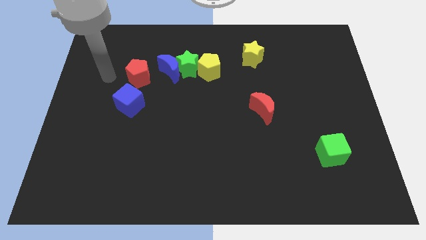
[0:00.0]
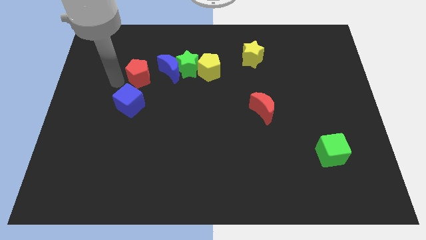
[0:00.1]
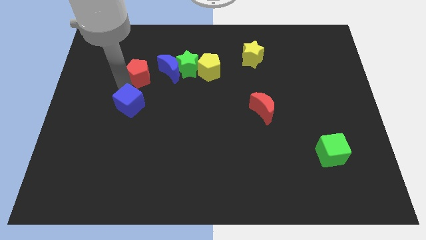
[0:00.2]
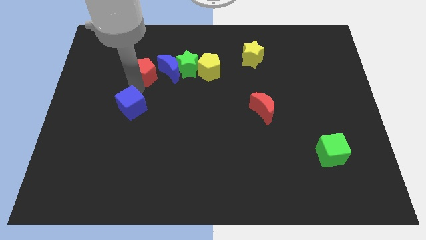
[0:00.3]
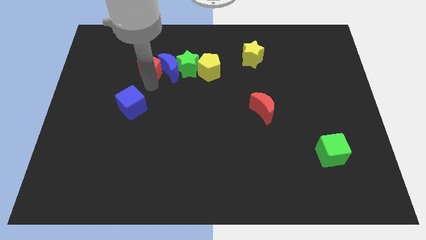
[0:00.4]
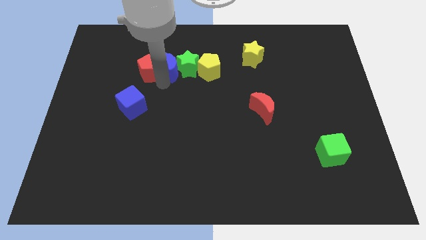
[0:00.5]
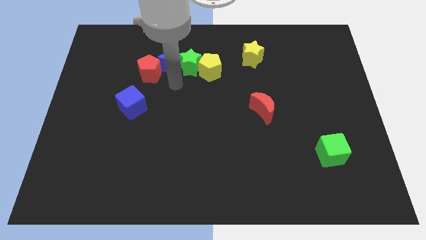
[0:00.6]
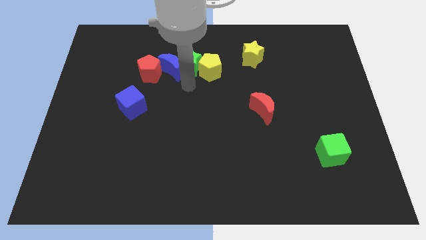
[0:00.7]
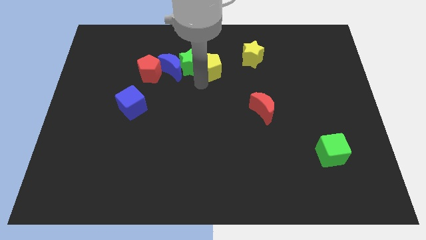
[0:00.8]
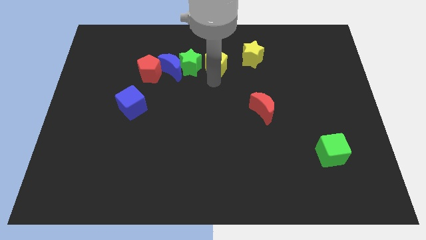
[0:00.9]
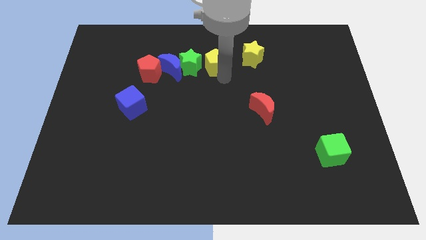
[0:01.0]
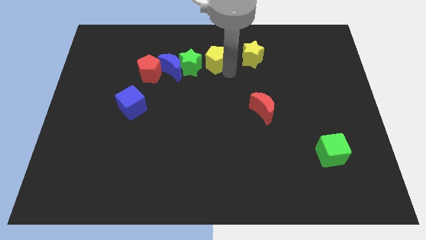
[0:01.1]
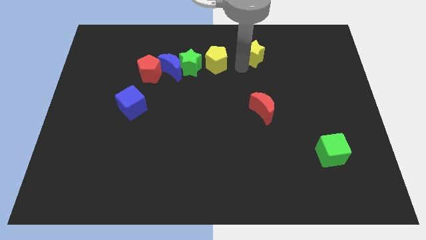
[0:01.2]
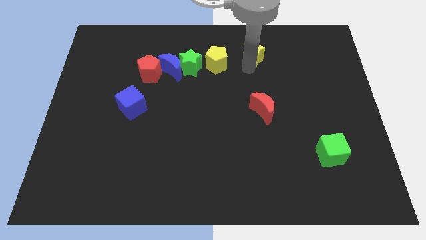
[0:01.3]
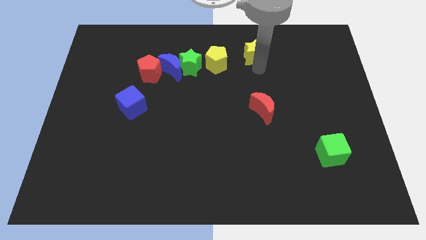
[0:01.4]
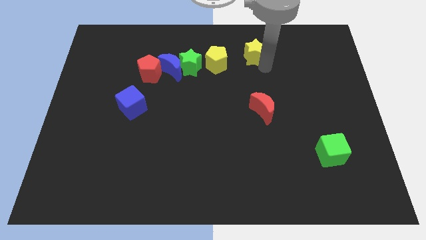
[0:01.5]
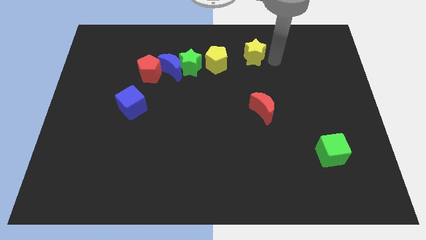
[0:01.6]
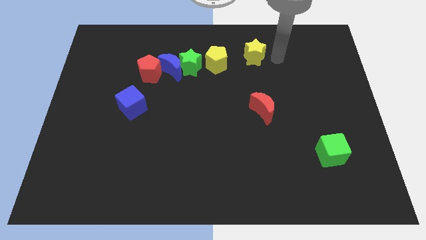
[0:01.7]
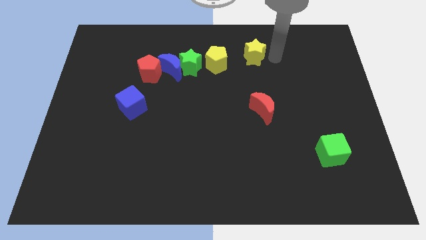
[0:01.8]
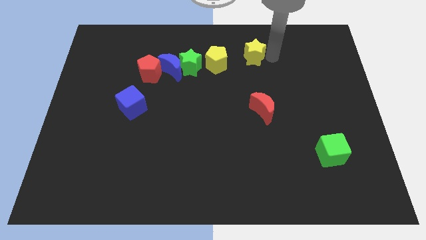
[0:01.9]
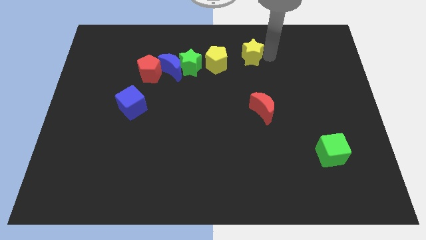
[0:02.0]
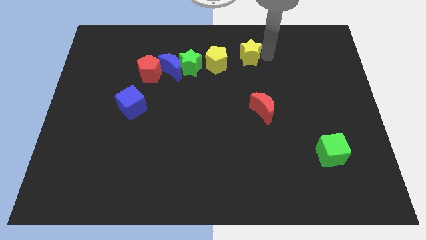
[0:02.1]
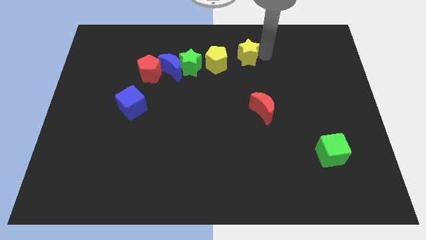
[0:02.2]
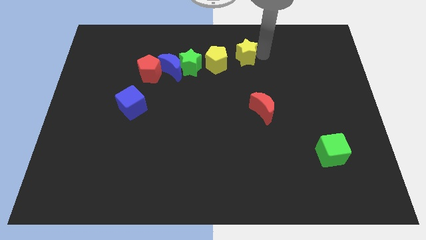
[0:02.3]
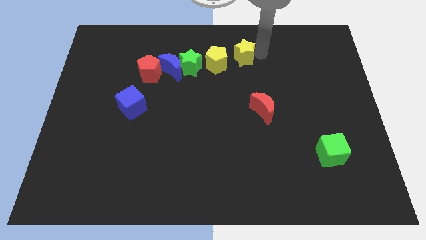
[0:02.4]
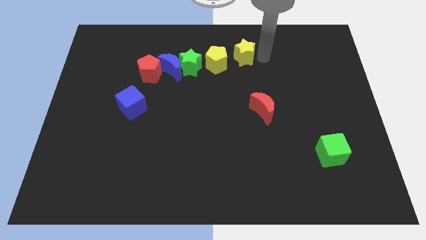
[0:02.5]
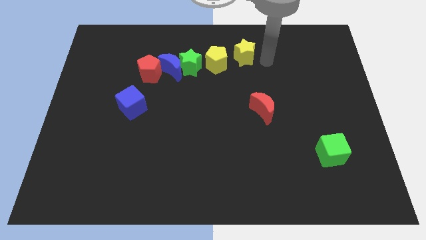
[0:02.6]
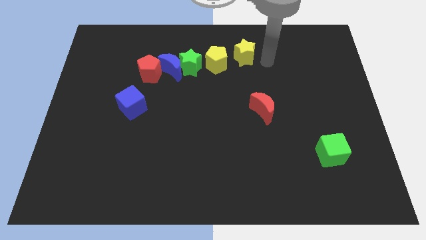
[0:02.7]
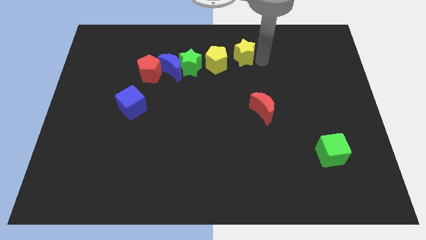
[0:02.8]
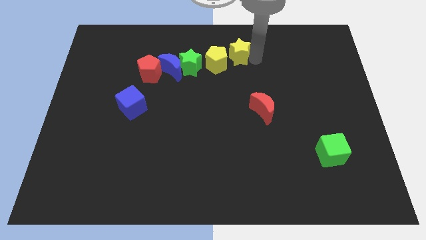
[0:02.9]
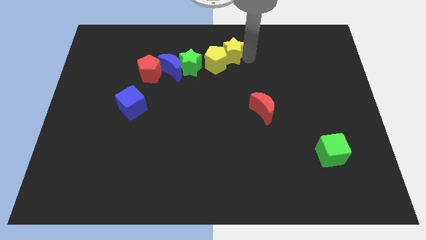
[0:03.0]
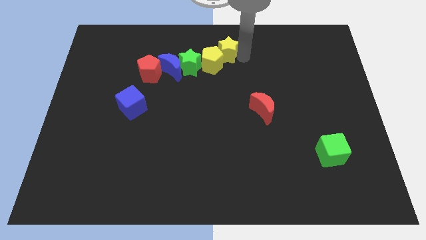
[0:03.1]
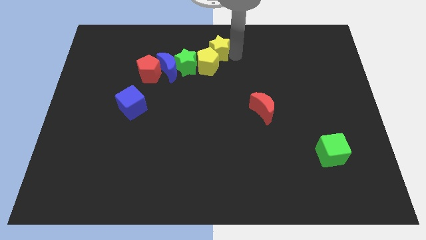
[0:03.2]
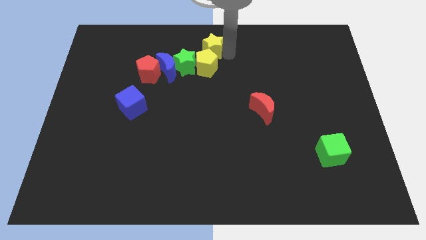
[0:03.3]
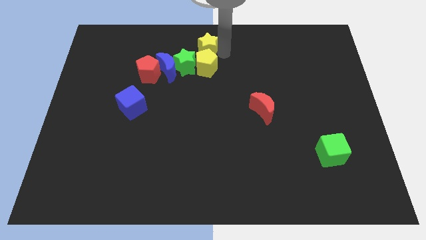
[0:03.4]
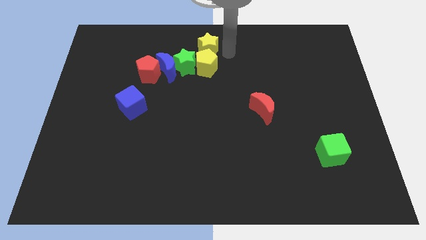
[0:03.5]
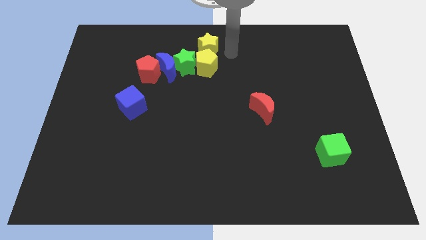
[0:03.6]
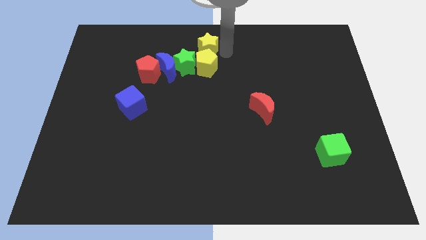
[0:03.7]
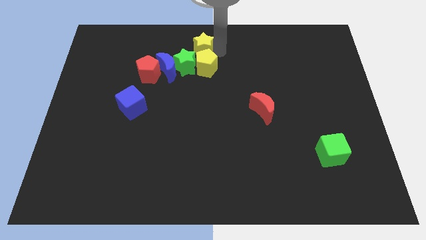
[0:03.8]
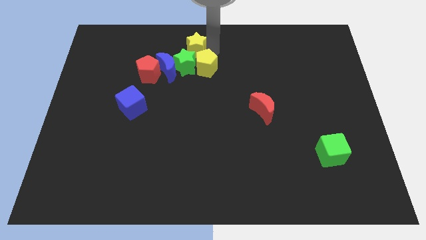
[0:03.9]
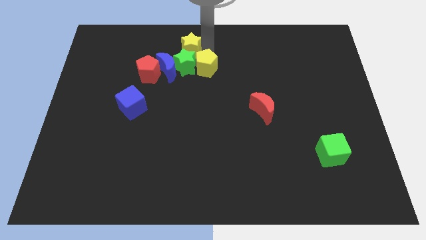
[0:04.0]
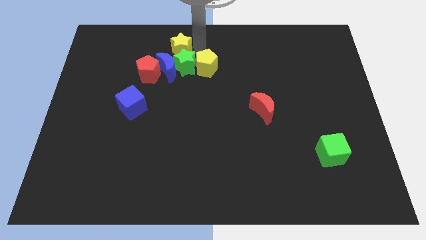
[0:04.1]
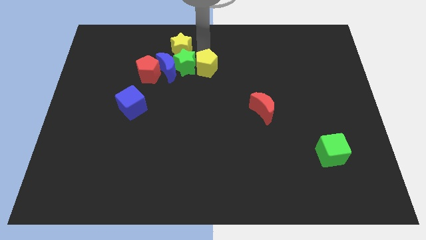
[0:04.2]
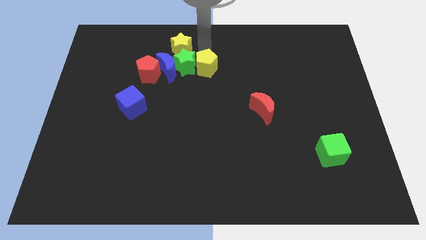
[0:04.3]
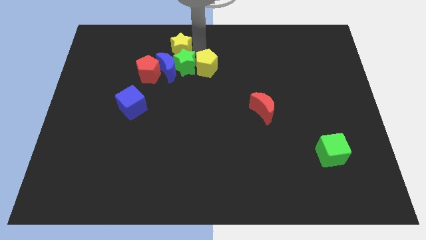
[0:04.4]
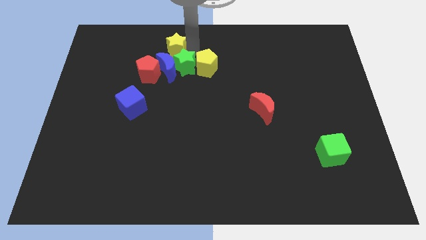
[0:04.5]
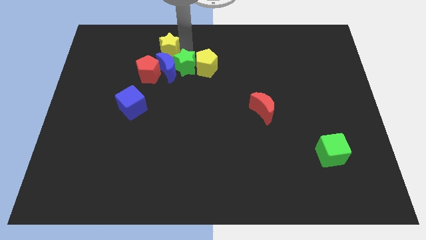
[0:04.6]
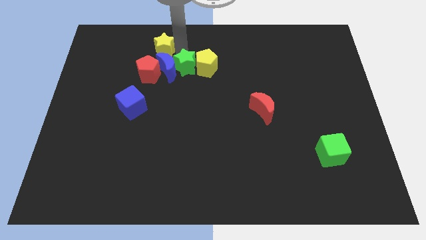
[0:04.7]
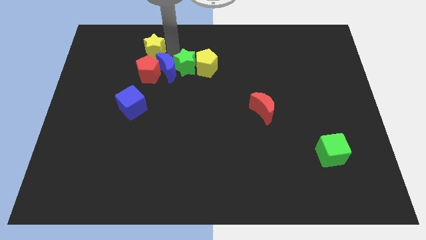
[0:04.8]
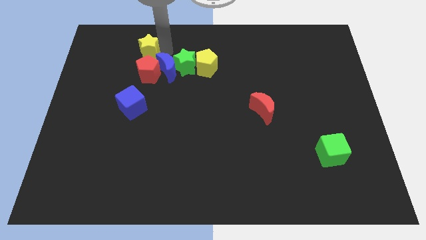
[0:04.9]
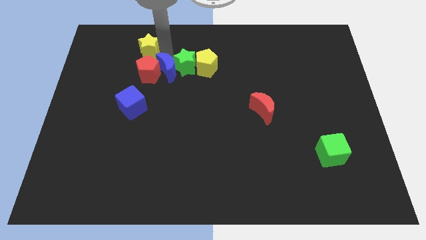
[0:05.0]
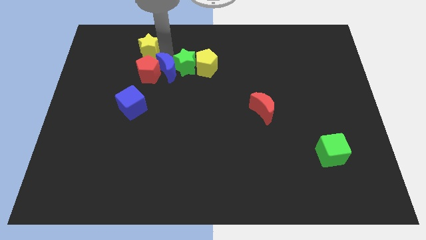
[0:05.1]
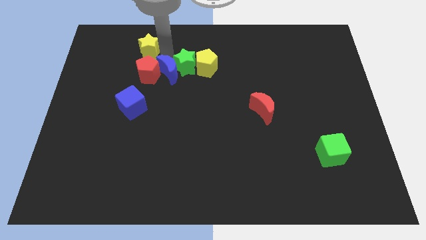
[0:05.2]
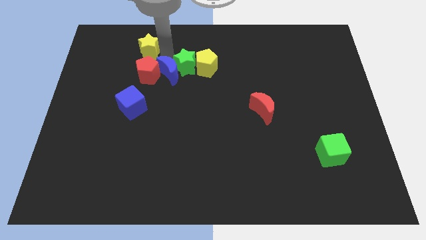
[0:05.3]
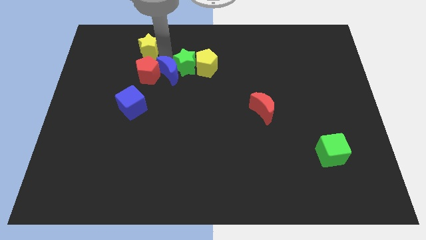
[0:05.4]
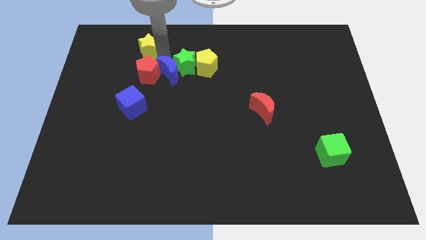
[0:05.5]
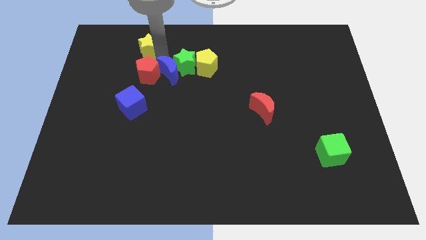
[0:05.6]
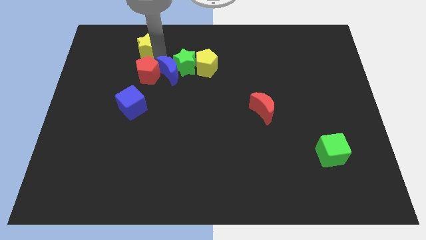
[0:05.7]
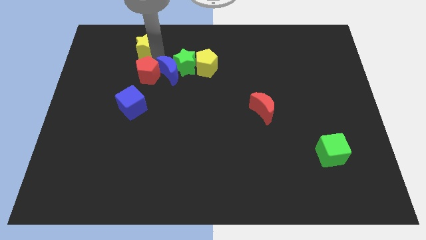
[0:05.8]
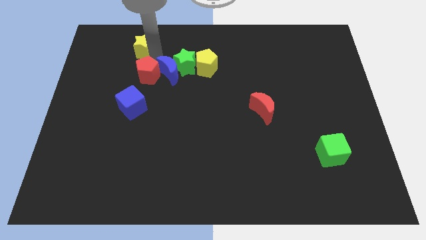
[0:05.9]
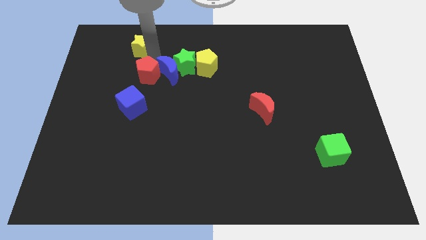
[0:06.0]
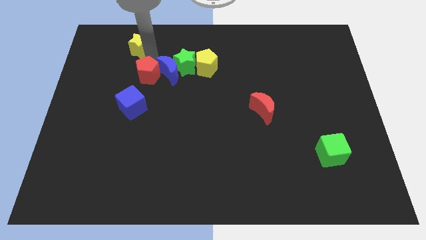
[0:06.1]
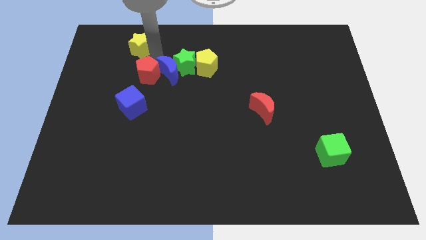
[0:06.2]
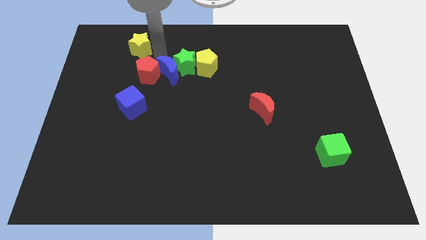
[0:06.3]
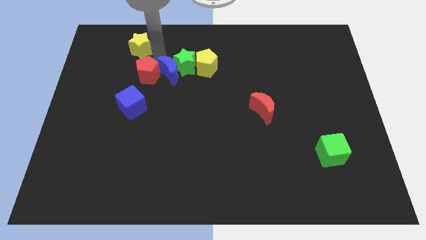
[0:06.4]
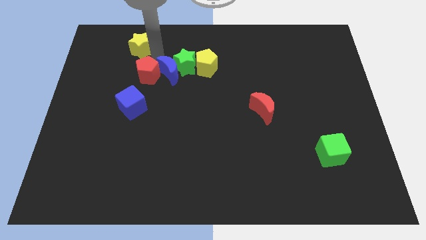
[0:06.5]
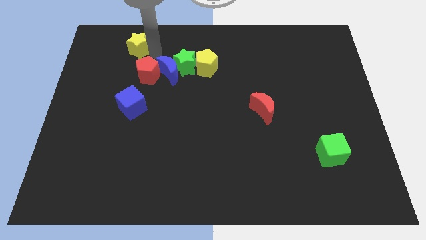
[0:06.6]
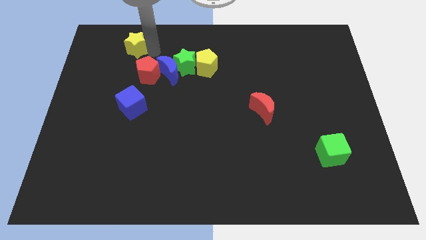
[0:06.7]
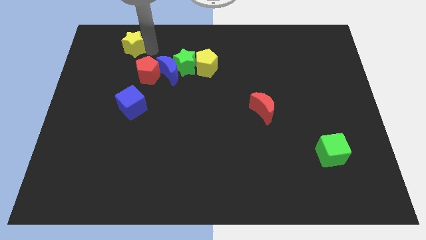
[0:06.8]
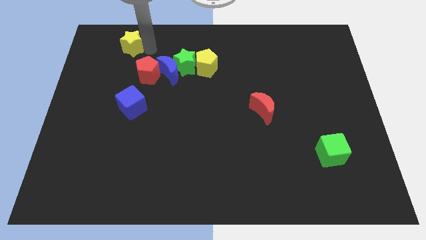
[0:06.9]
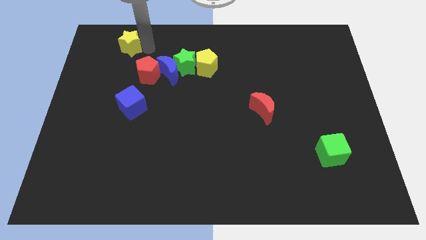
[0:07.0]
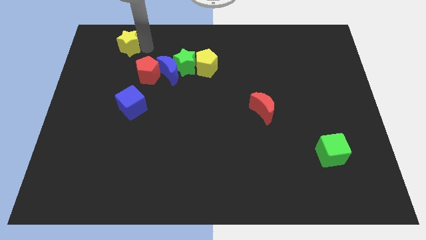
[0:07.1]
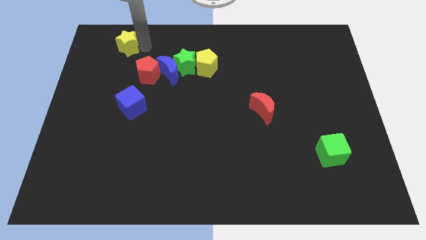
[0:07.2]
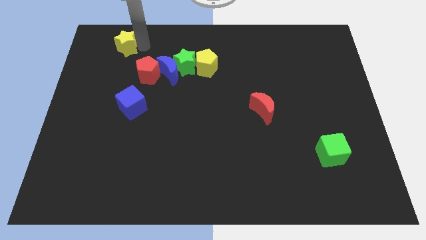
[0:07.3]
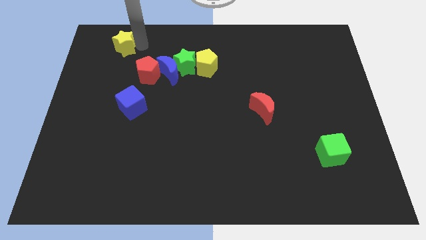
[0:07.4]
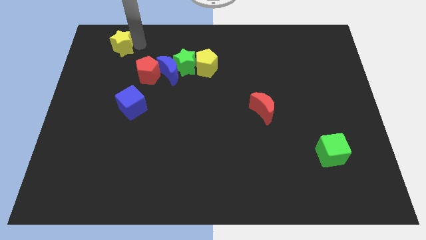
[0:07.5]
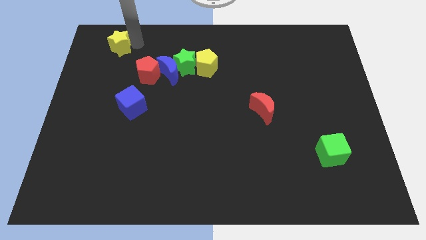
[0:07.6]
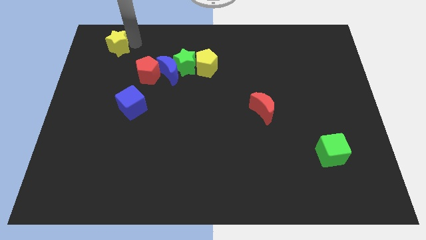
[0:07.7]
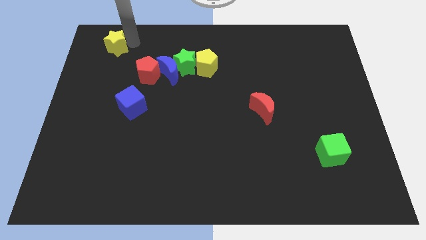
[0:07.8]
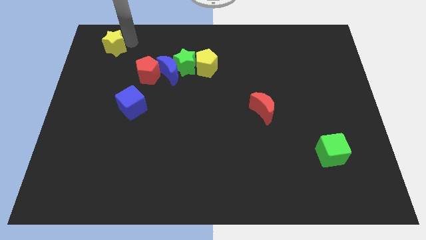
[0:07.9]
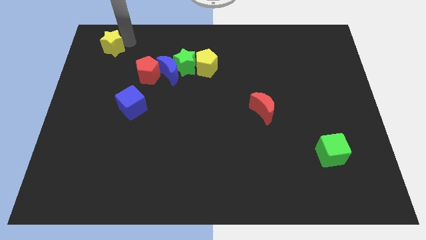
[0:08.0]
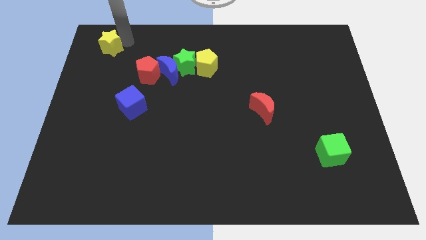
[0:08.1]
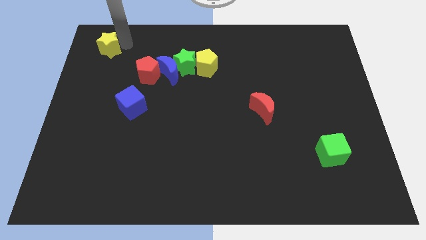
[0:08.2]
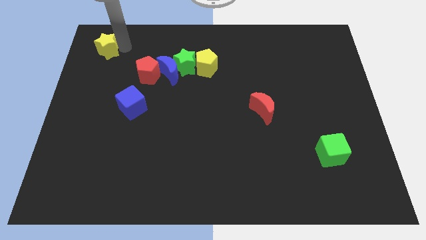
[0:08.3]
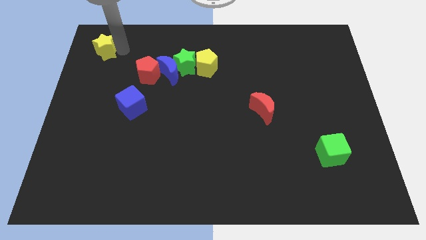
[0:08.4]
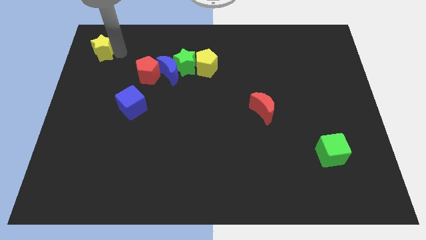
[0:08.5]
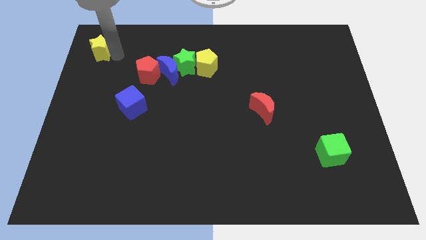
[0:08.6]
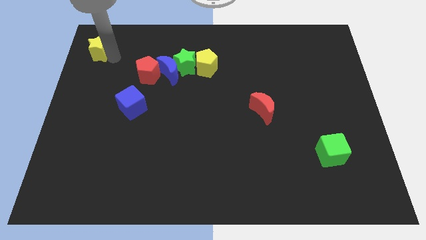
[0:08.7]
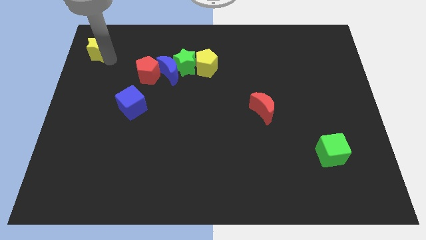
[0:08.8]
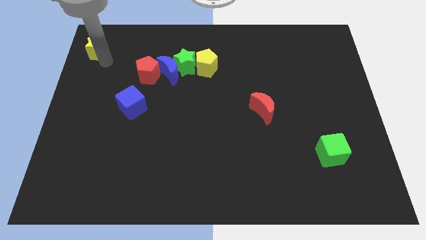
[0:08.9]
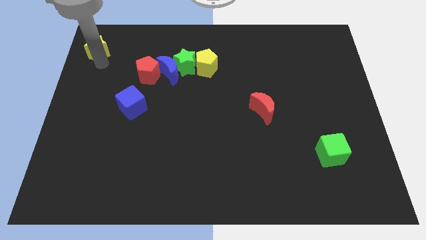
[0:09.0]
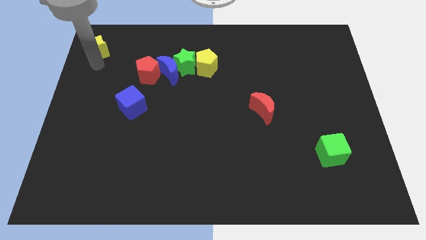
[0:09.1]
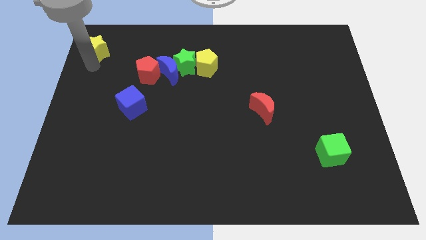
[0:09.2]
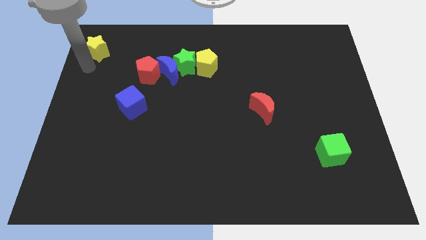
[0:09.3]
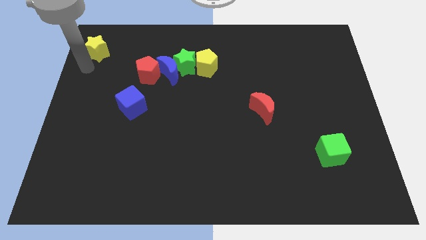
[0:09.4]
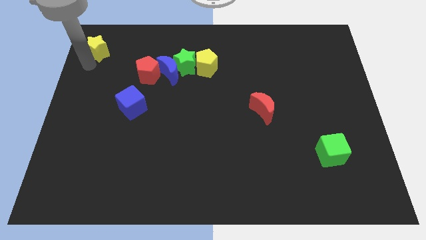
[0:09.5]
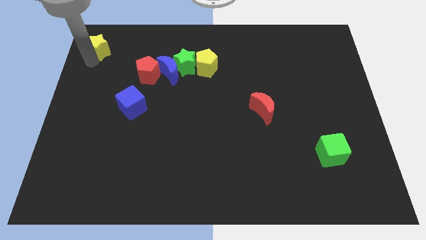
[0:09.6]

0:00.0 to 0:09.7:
put the yellow star to the upper left corner
